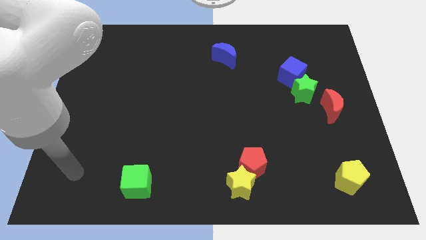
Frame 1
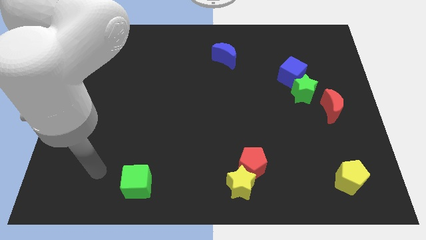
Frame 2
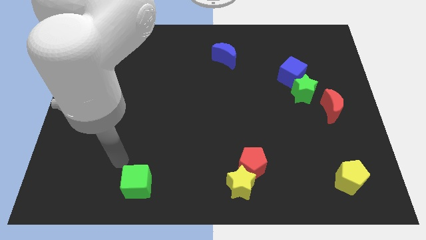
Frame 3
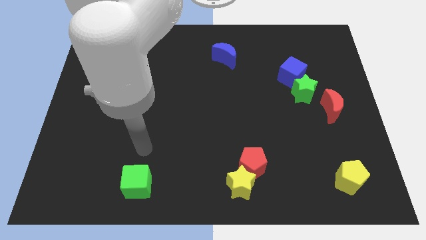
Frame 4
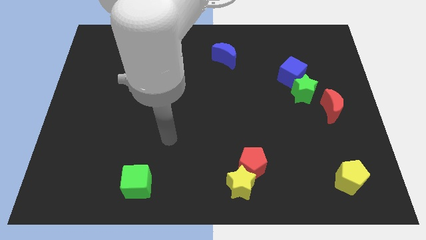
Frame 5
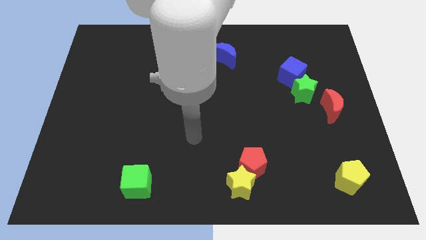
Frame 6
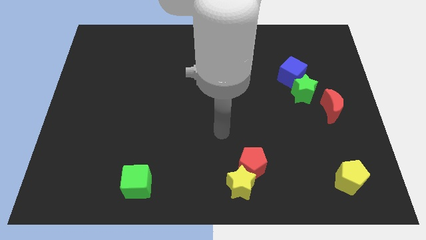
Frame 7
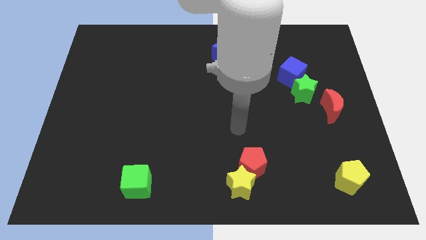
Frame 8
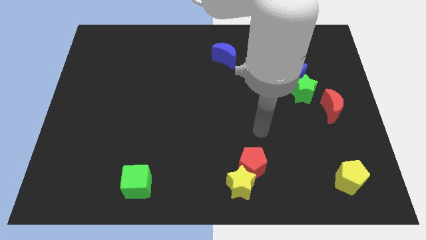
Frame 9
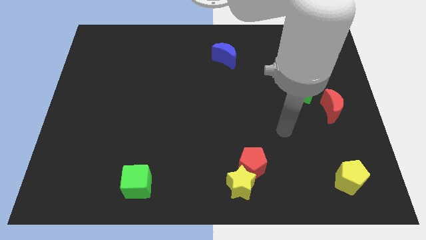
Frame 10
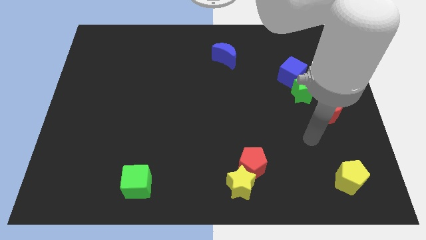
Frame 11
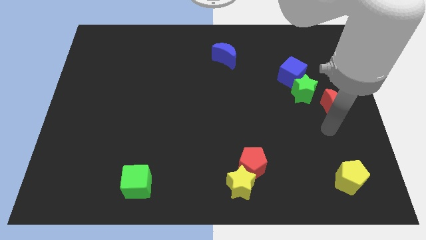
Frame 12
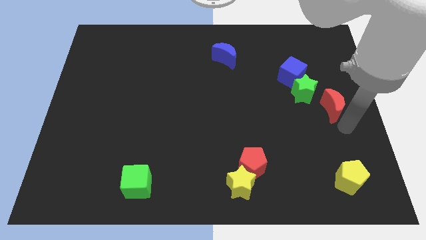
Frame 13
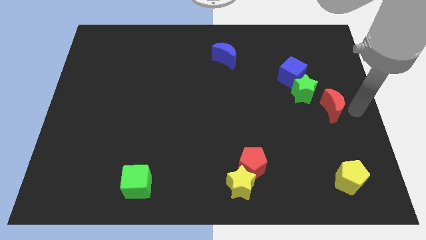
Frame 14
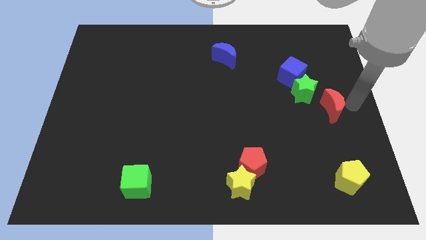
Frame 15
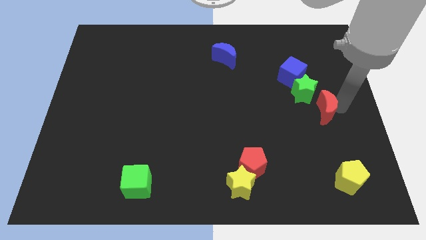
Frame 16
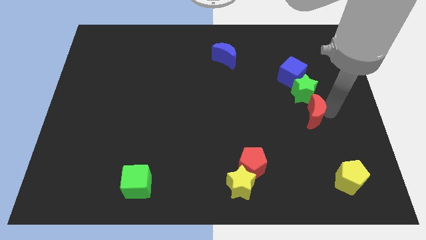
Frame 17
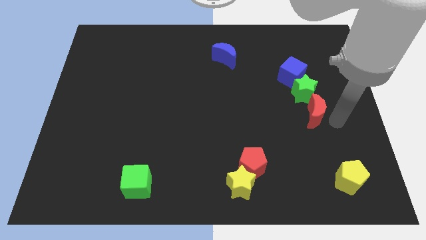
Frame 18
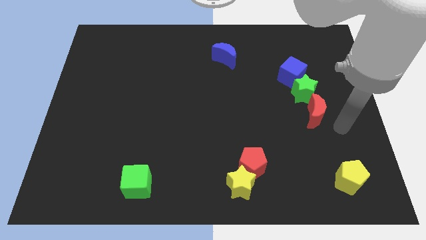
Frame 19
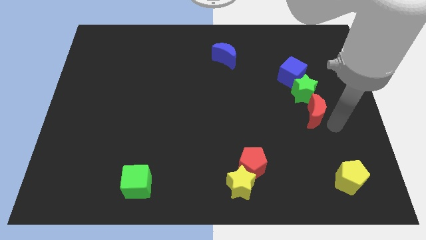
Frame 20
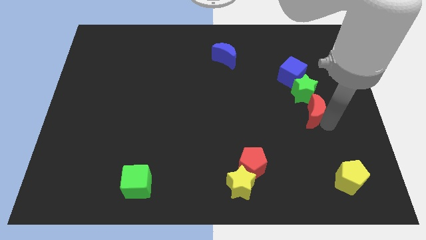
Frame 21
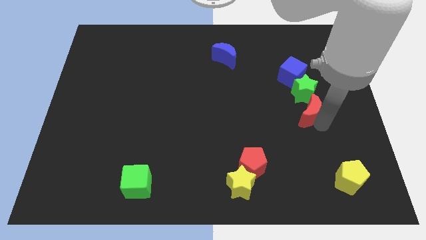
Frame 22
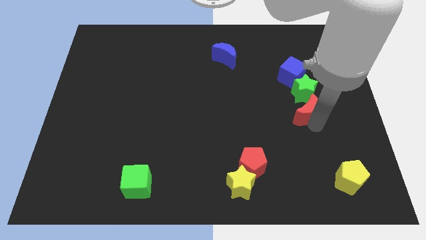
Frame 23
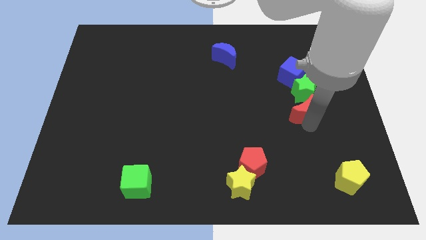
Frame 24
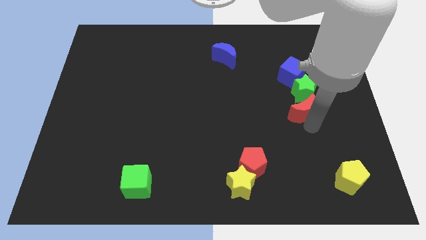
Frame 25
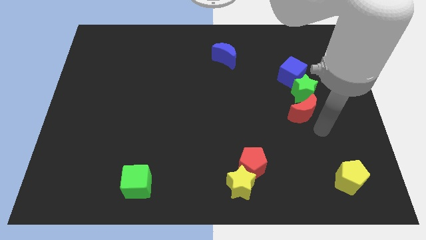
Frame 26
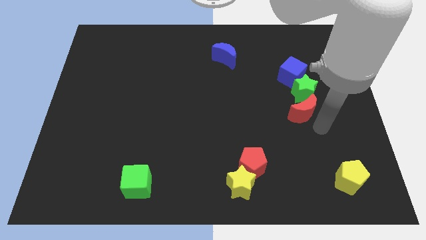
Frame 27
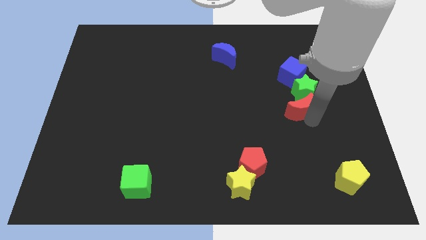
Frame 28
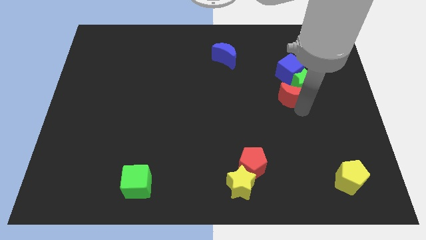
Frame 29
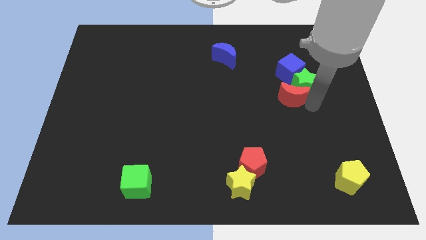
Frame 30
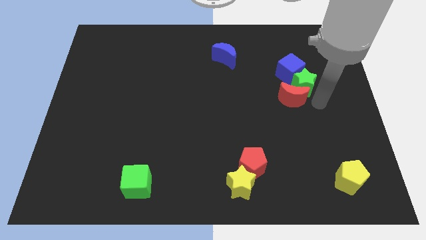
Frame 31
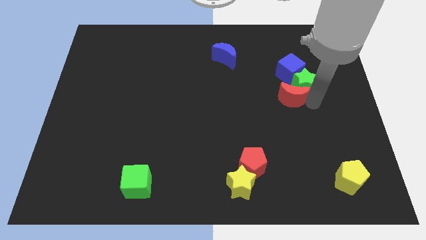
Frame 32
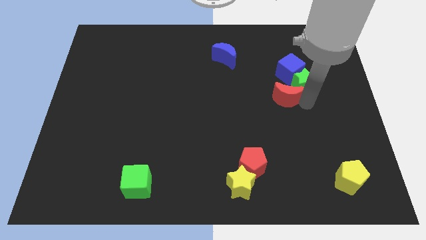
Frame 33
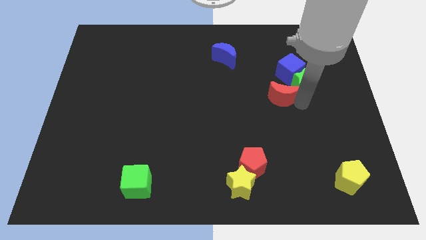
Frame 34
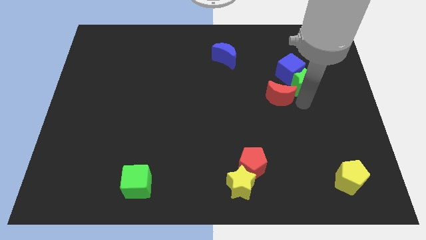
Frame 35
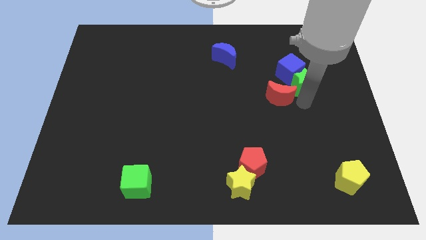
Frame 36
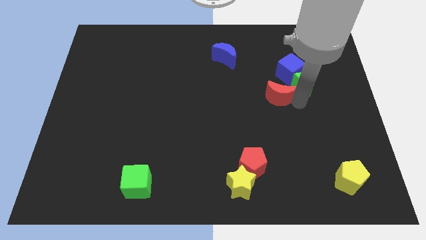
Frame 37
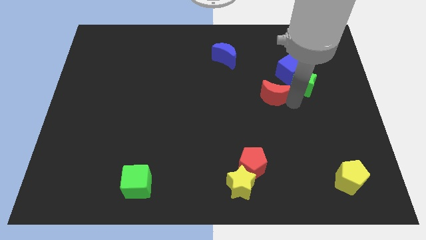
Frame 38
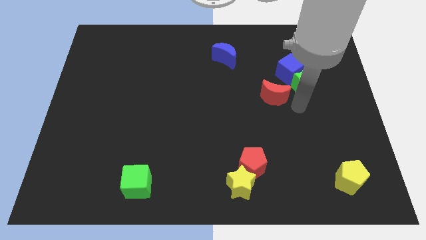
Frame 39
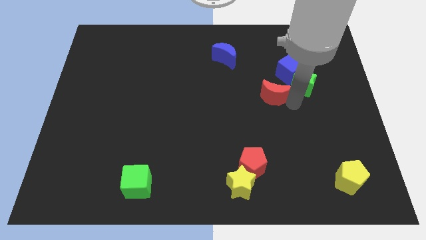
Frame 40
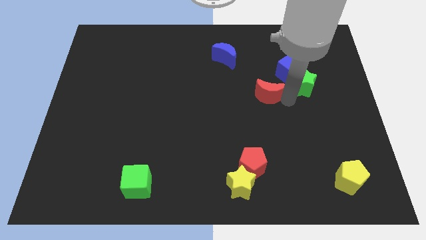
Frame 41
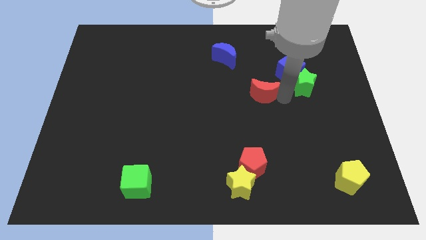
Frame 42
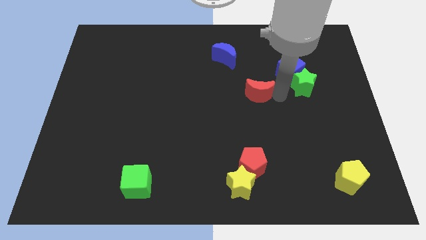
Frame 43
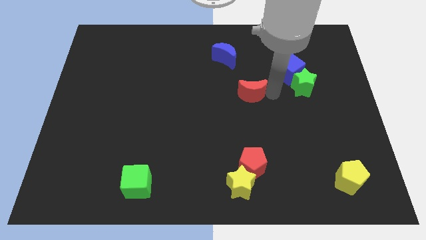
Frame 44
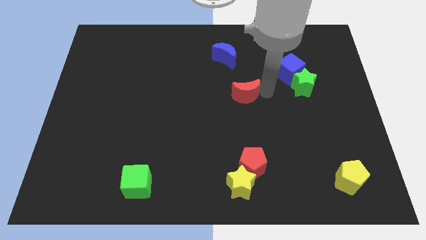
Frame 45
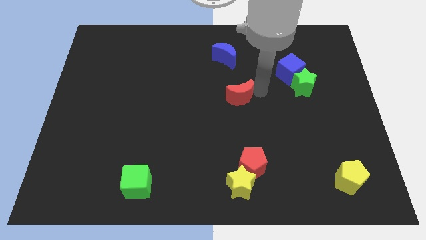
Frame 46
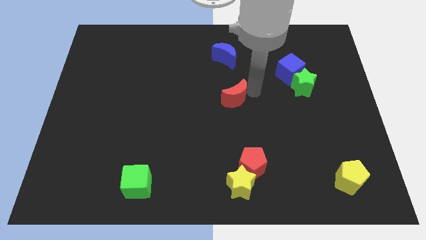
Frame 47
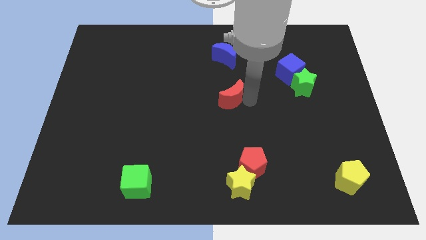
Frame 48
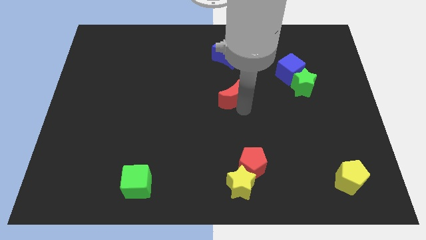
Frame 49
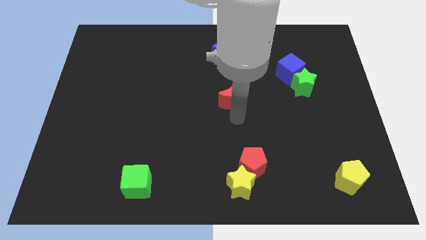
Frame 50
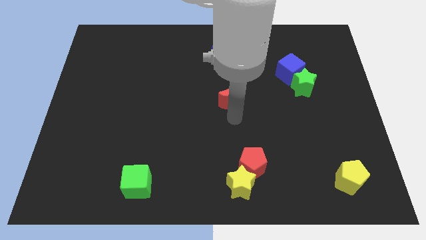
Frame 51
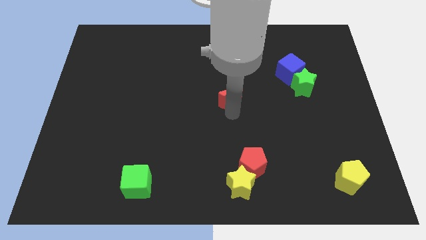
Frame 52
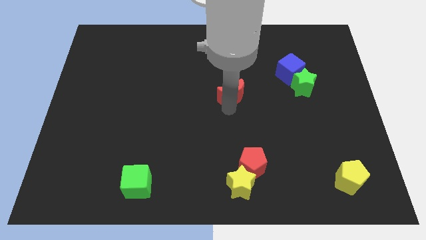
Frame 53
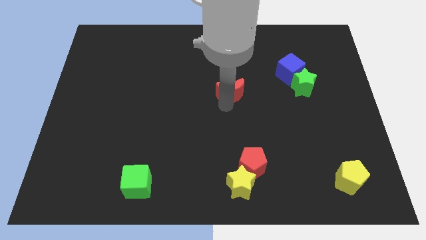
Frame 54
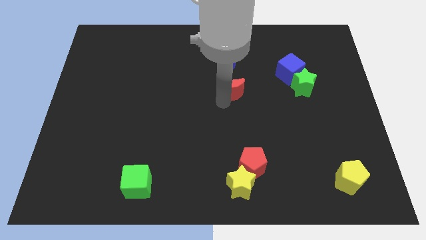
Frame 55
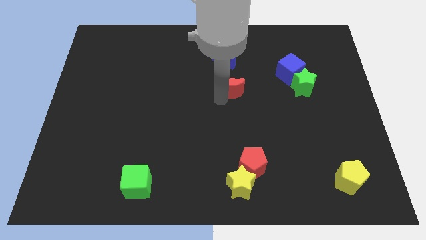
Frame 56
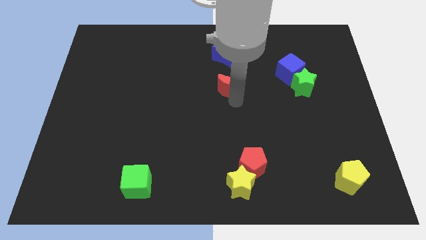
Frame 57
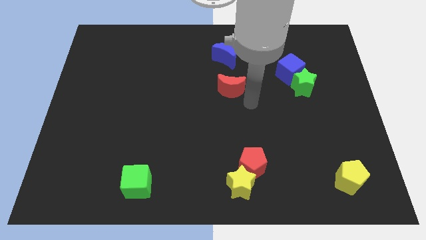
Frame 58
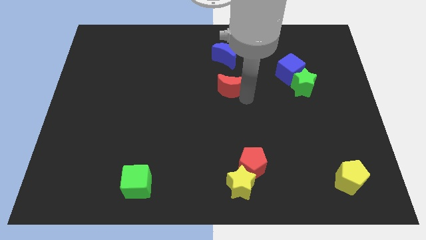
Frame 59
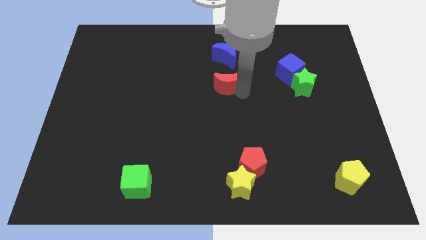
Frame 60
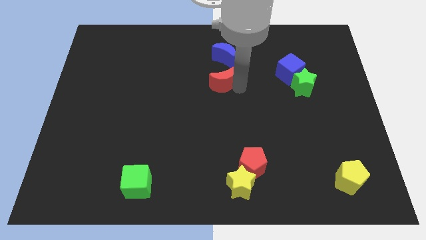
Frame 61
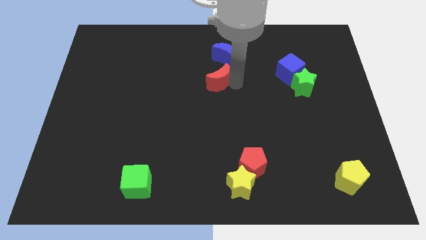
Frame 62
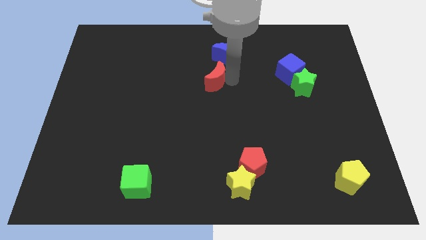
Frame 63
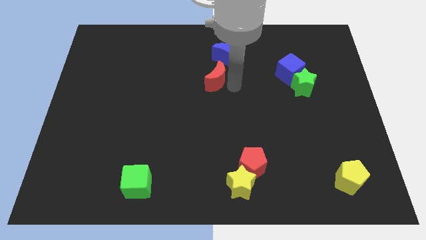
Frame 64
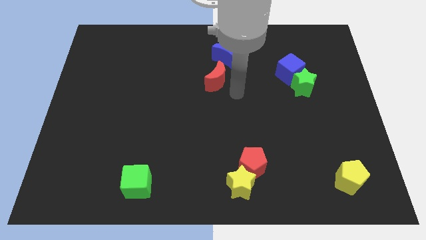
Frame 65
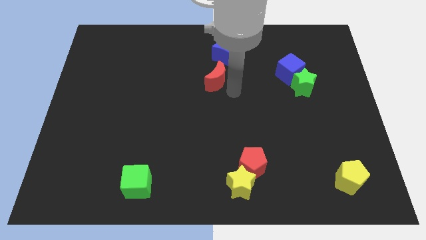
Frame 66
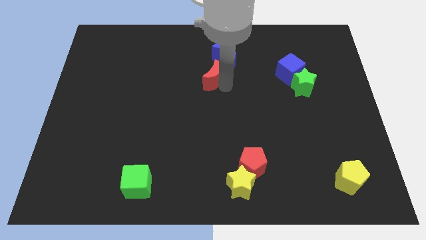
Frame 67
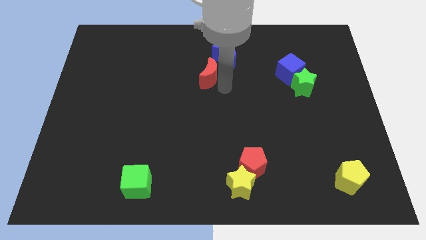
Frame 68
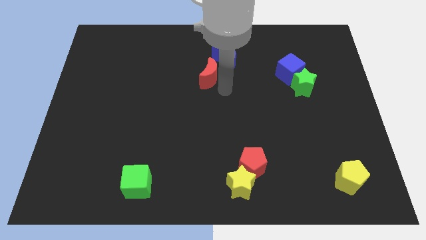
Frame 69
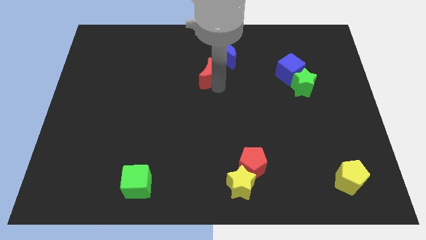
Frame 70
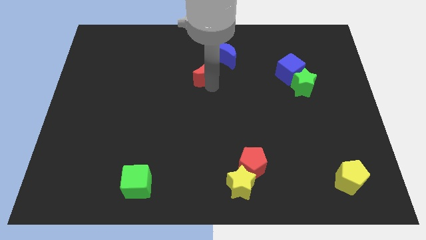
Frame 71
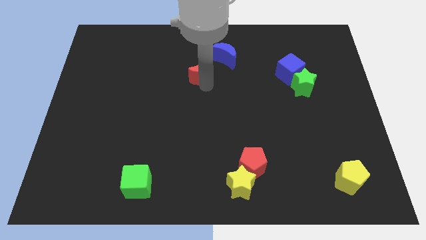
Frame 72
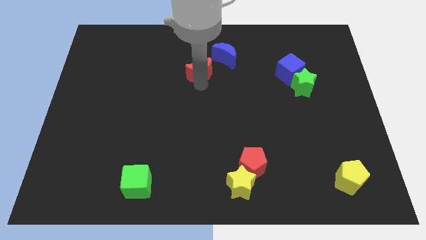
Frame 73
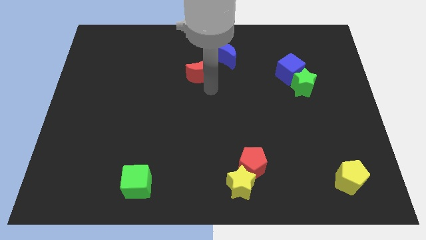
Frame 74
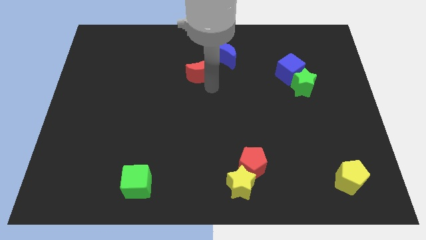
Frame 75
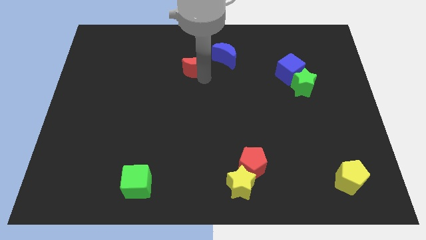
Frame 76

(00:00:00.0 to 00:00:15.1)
slide the red moon just left of the blue moon
